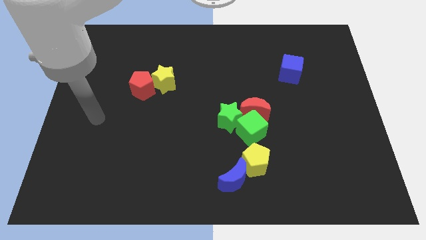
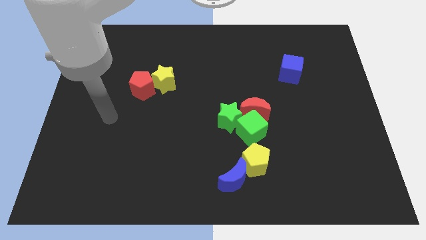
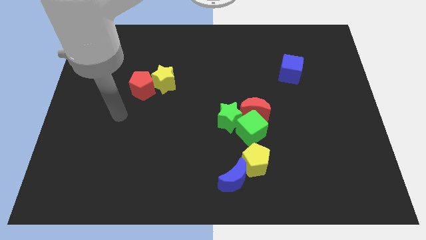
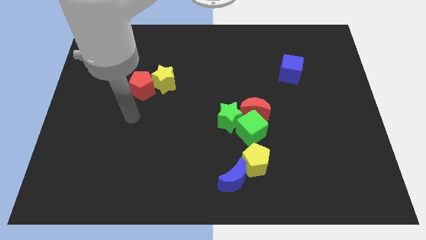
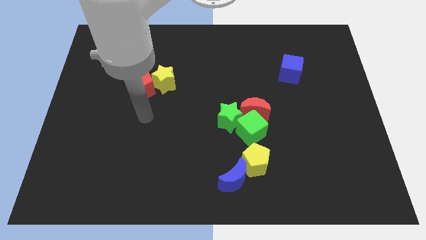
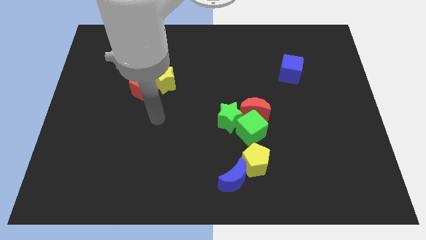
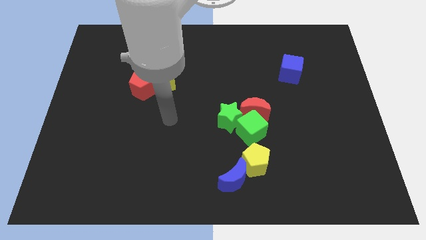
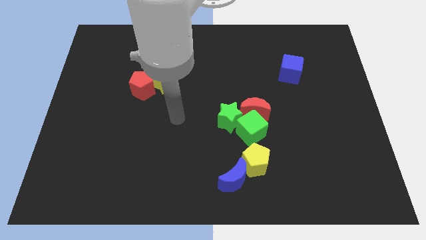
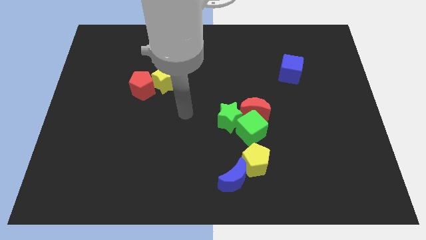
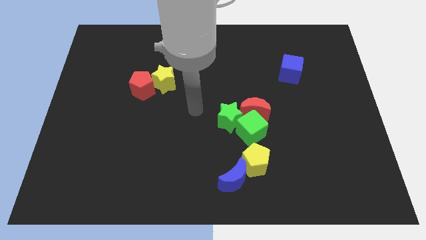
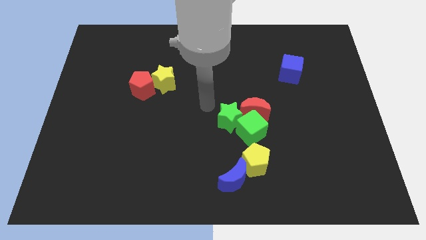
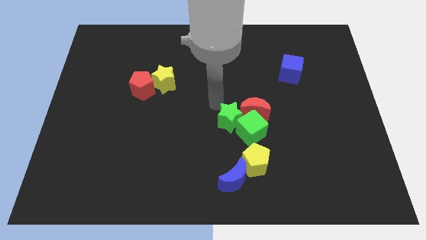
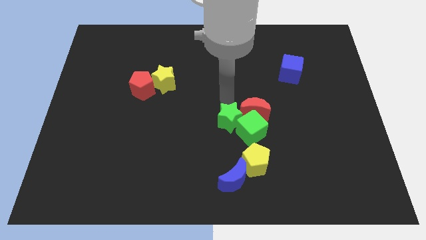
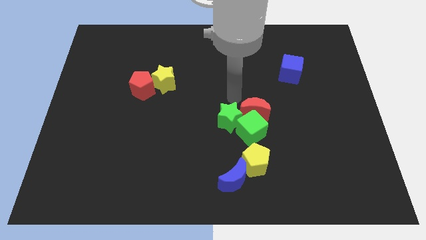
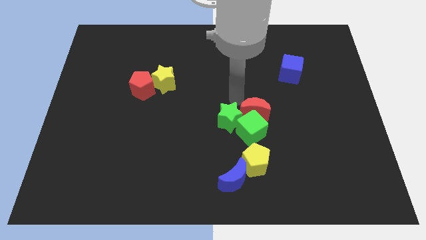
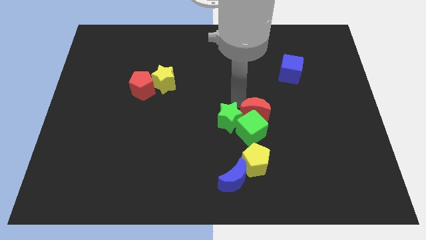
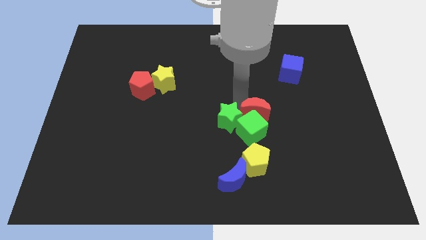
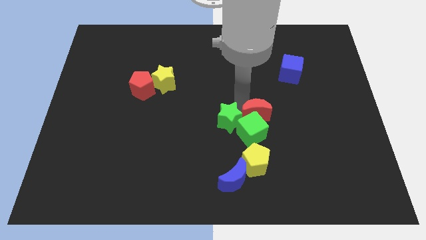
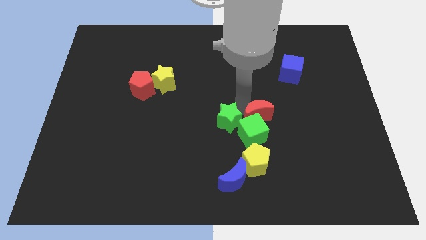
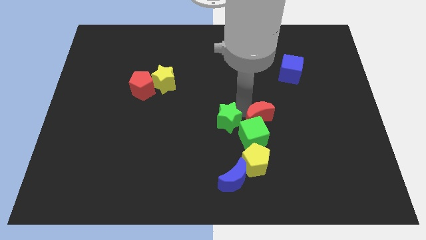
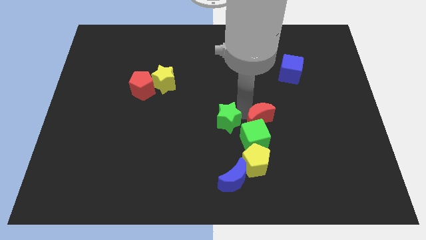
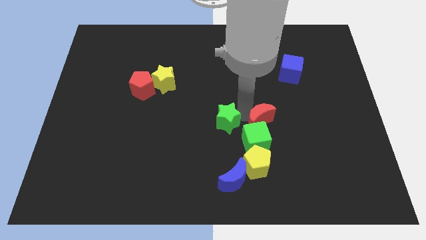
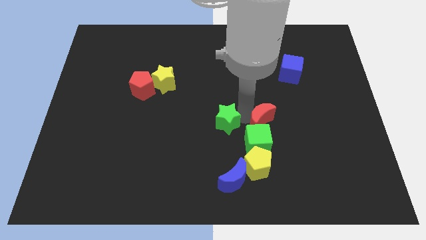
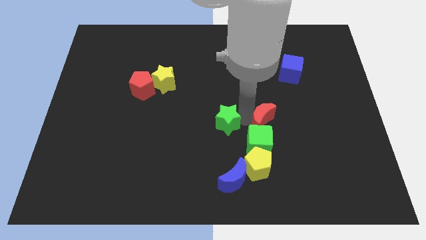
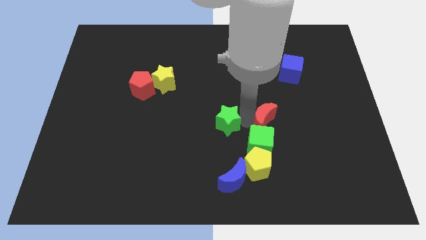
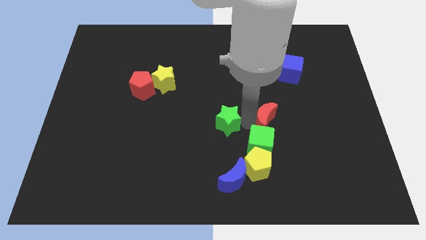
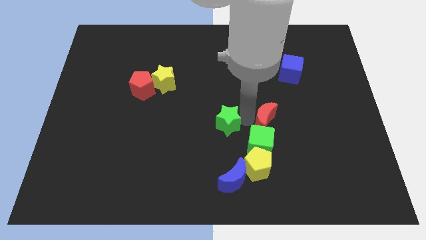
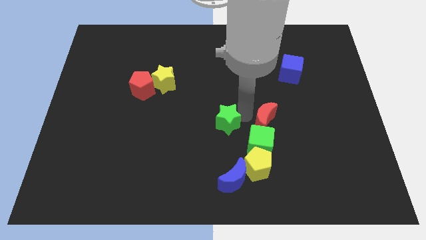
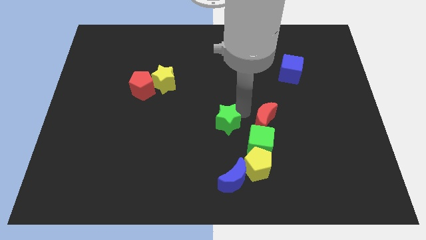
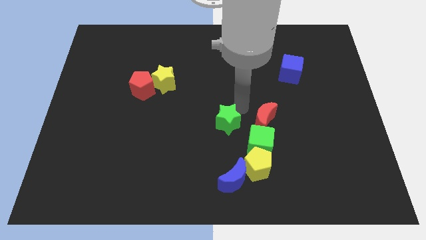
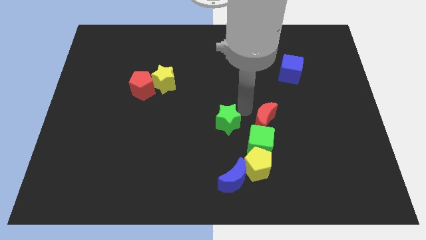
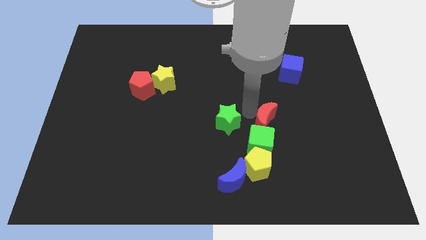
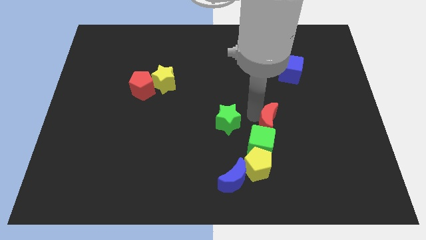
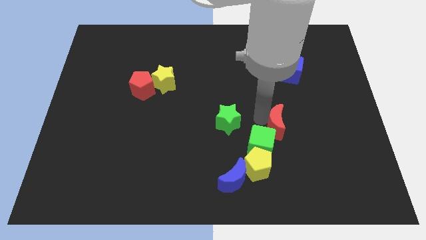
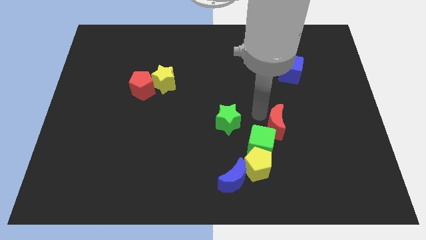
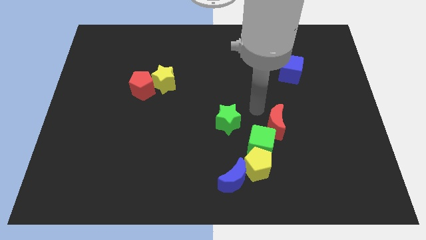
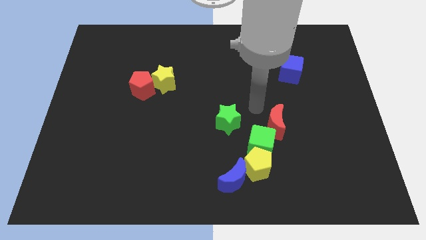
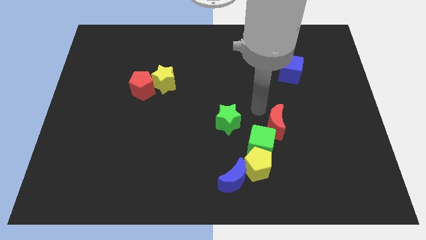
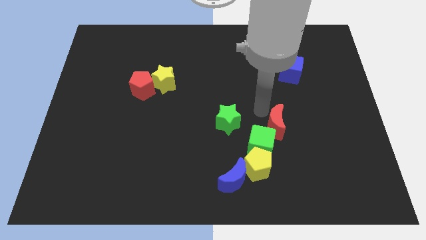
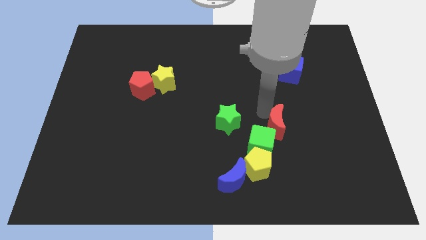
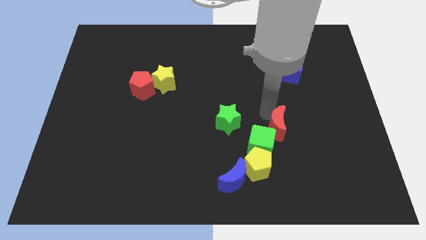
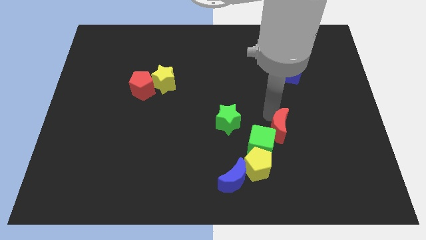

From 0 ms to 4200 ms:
push the red moon a bit downwards and then right

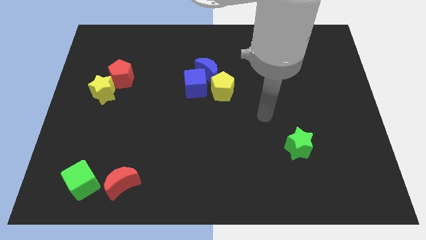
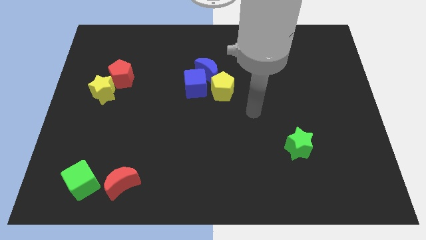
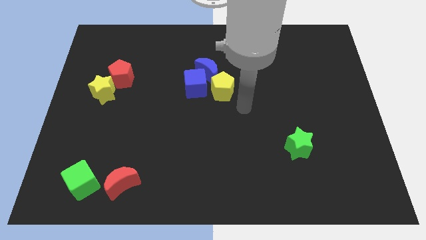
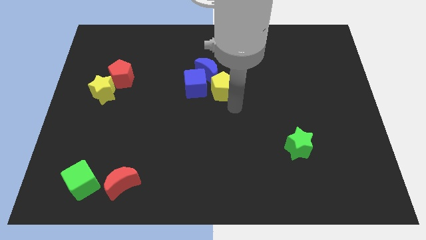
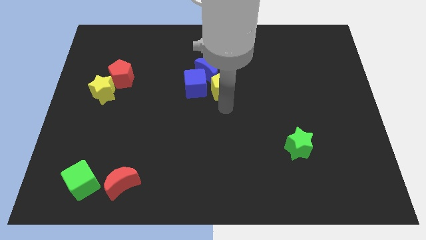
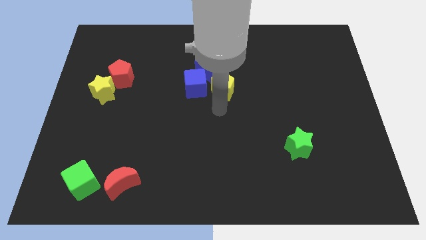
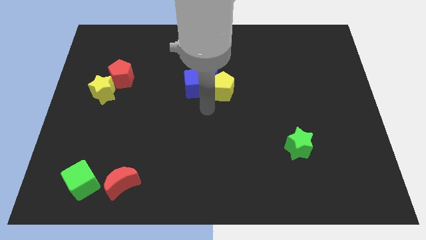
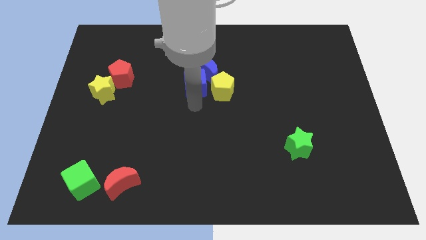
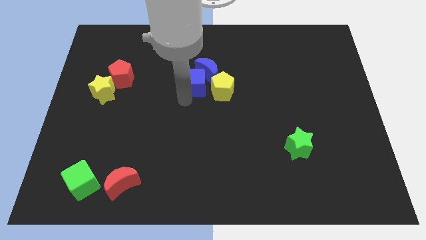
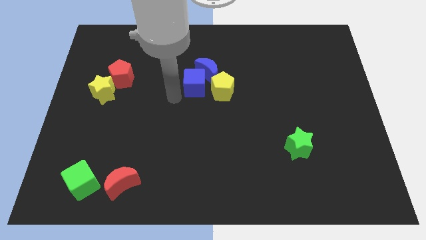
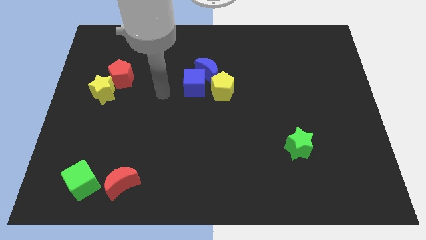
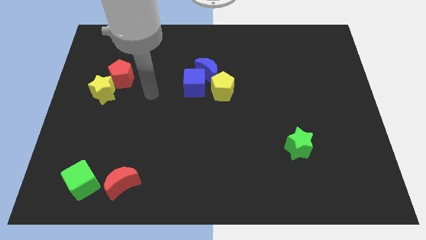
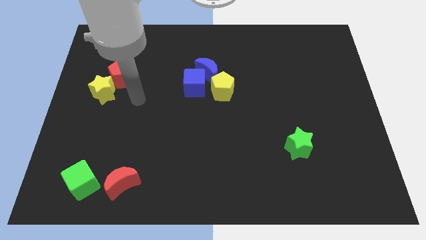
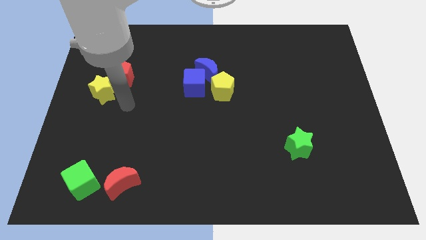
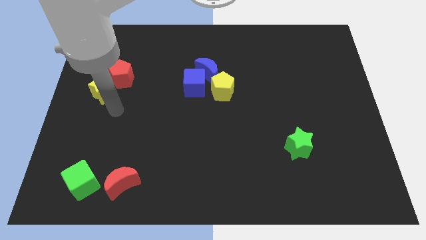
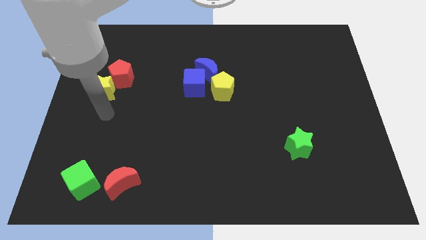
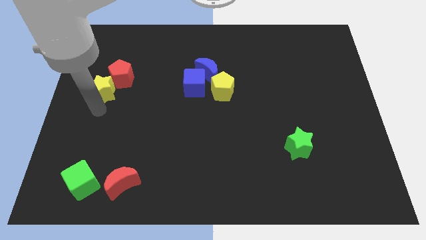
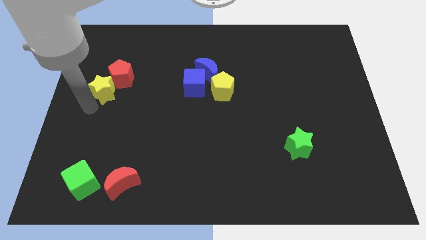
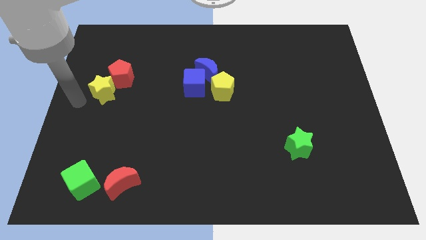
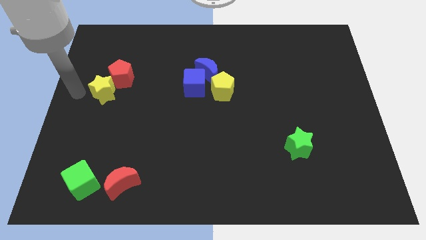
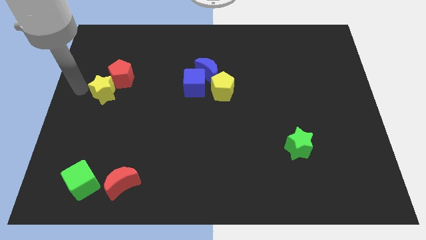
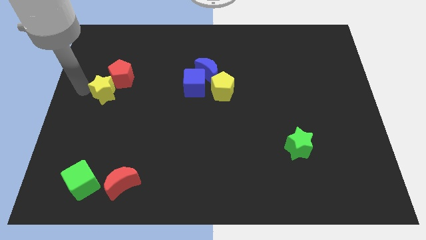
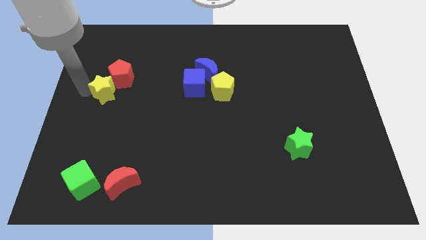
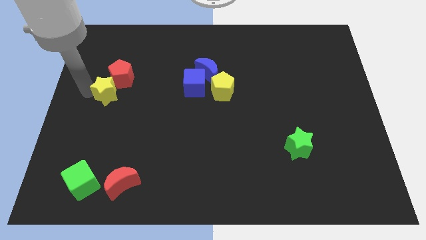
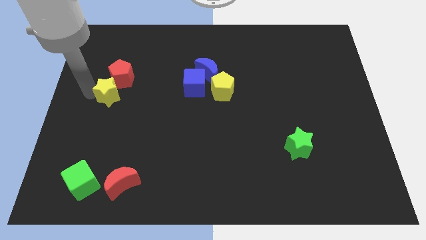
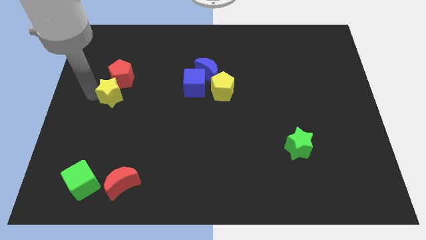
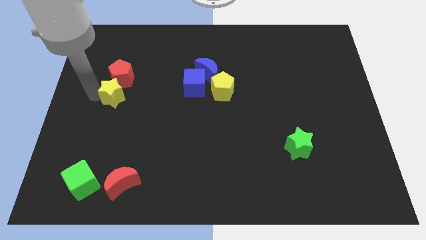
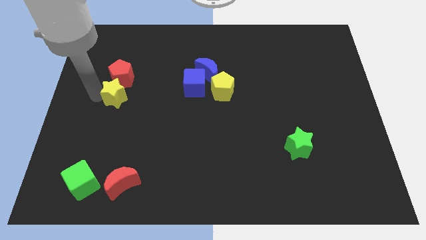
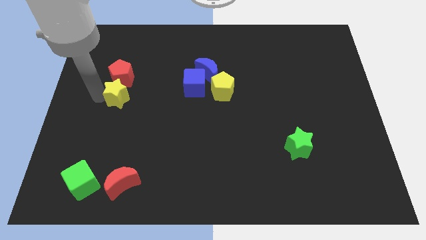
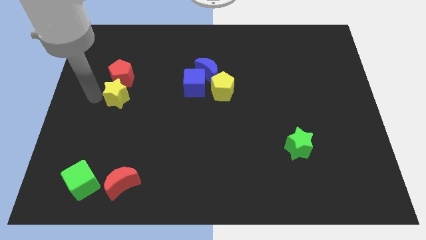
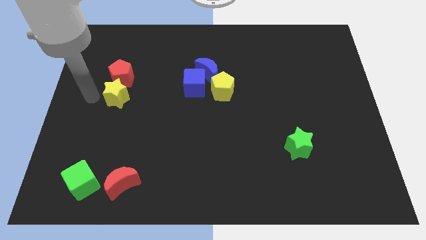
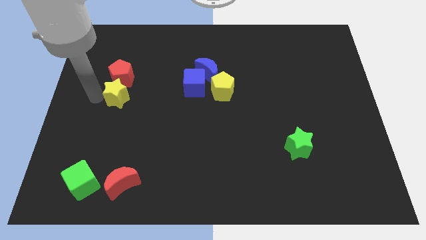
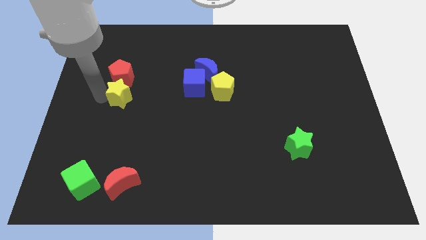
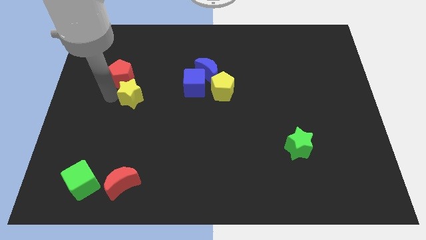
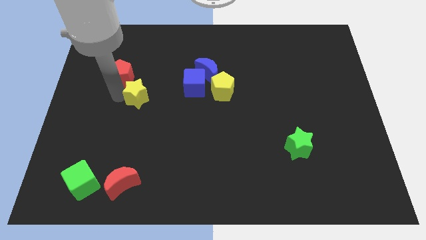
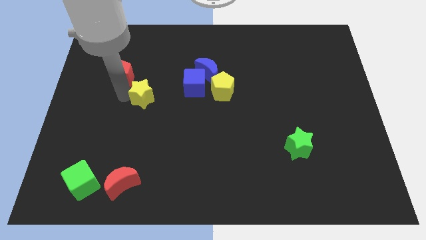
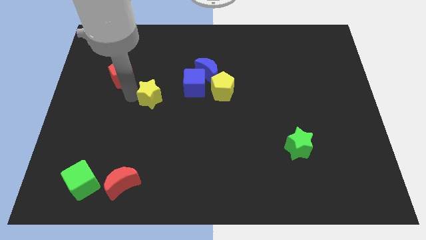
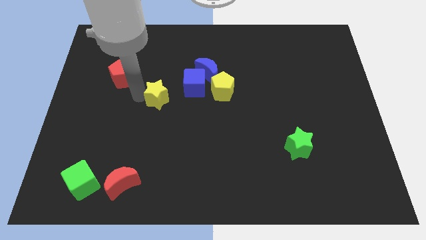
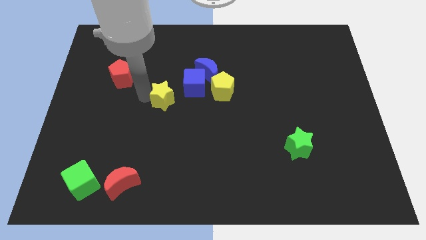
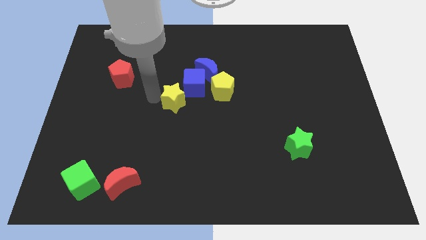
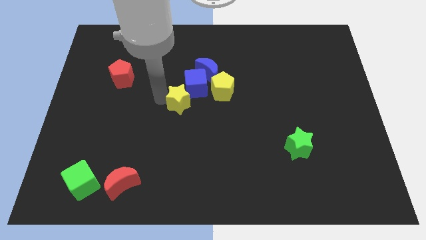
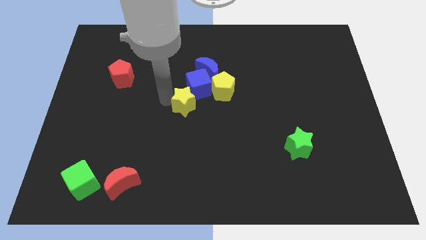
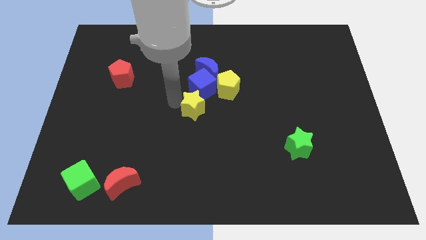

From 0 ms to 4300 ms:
slide the yellow star to the right
